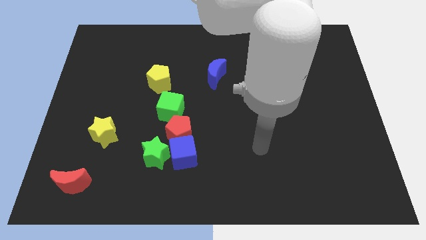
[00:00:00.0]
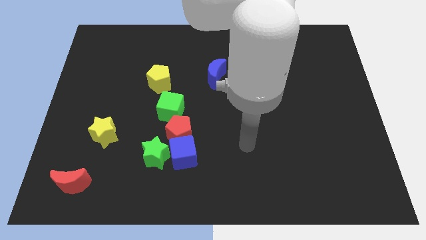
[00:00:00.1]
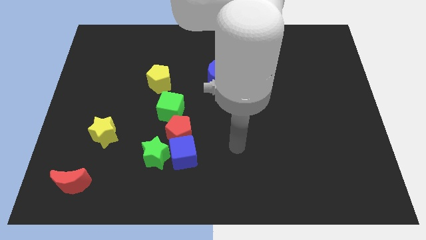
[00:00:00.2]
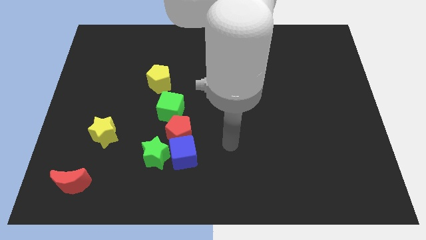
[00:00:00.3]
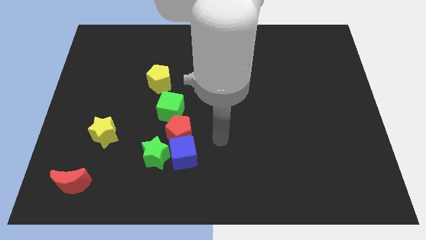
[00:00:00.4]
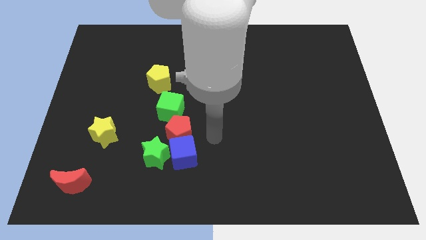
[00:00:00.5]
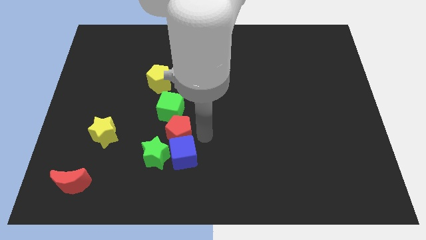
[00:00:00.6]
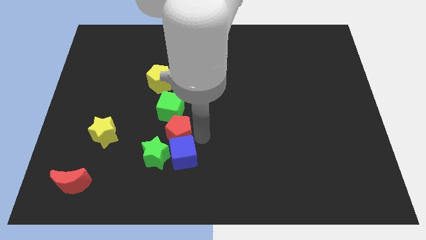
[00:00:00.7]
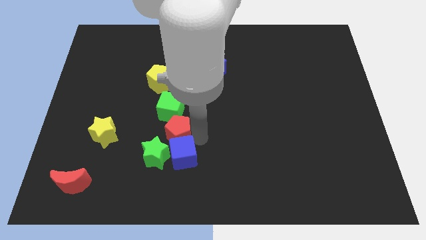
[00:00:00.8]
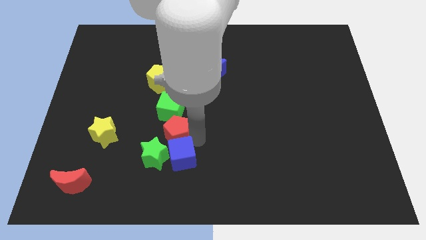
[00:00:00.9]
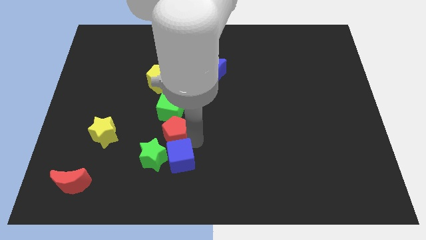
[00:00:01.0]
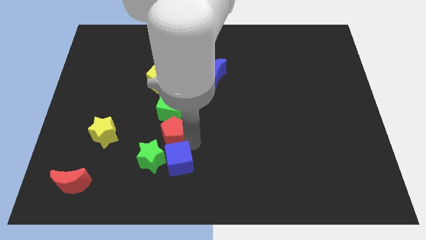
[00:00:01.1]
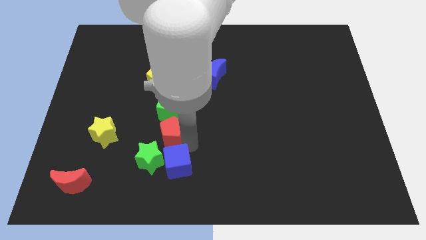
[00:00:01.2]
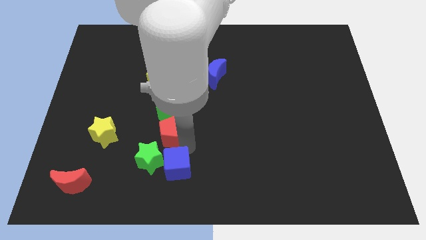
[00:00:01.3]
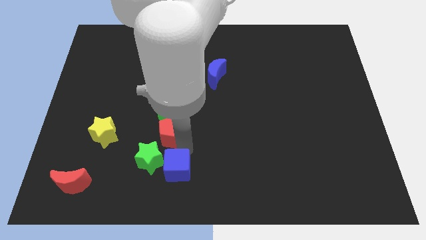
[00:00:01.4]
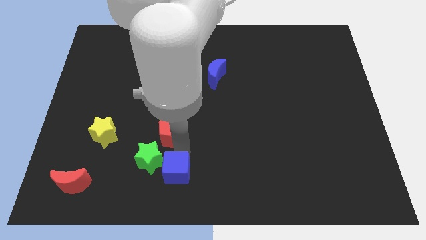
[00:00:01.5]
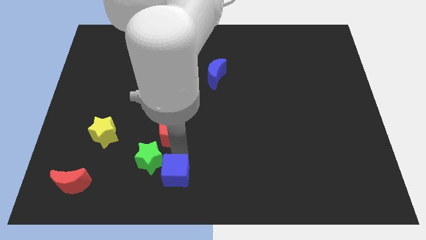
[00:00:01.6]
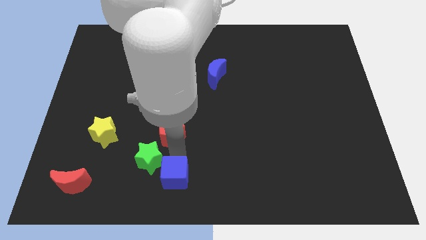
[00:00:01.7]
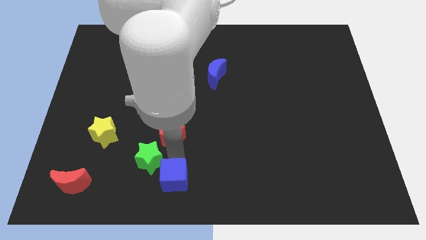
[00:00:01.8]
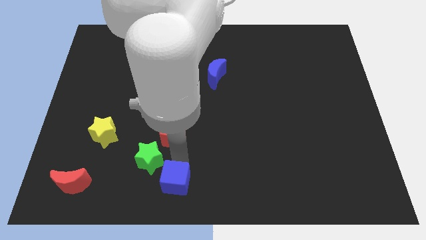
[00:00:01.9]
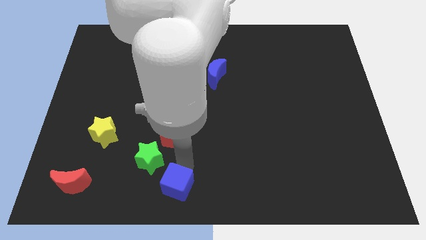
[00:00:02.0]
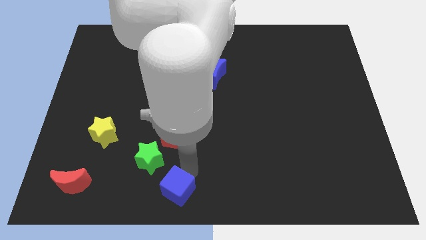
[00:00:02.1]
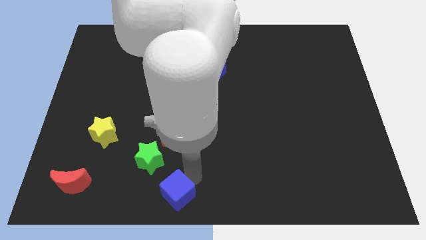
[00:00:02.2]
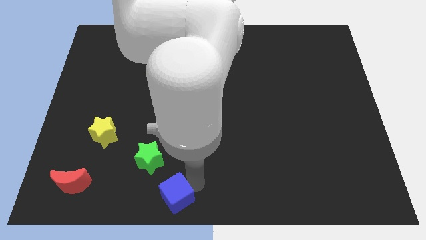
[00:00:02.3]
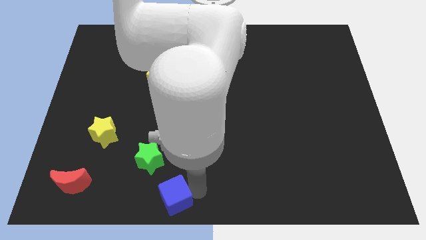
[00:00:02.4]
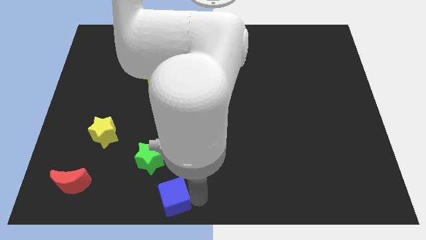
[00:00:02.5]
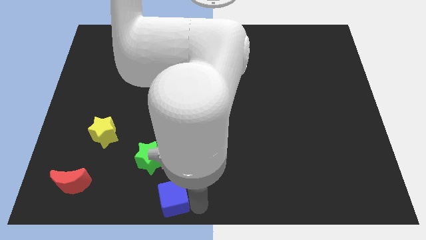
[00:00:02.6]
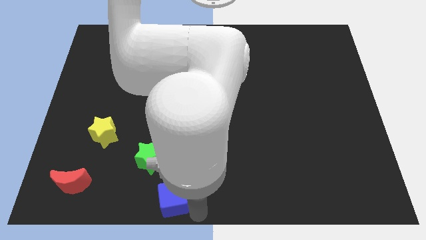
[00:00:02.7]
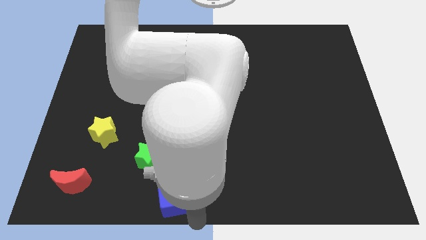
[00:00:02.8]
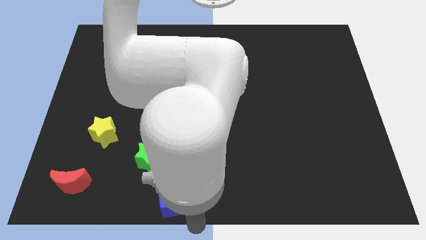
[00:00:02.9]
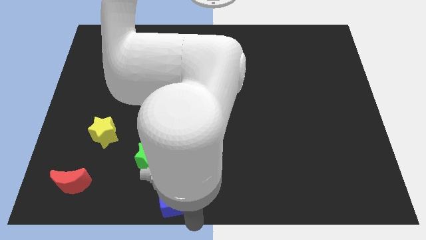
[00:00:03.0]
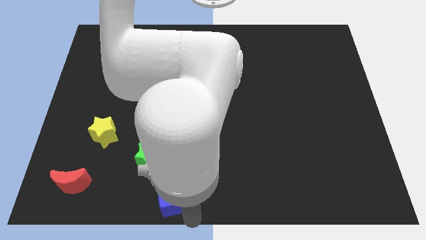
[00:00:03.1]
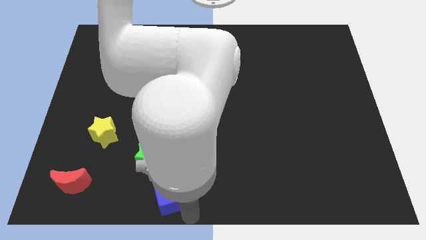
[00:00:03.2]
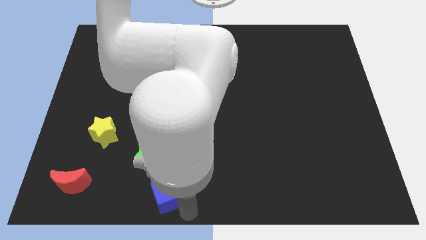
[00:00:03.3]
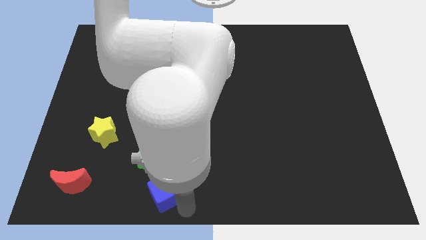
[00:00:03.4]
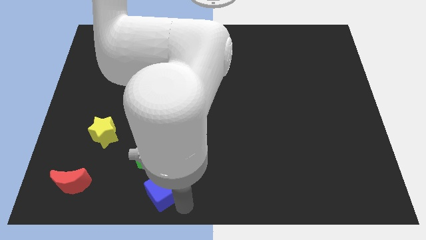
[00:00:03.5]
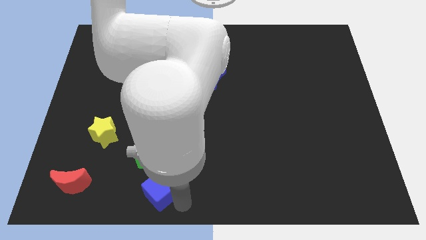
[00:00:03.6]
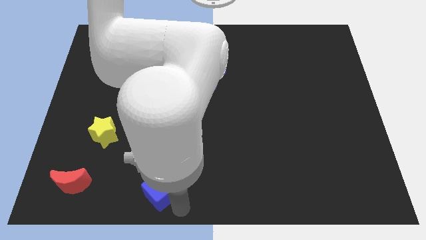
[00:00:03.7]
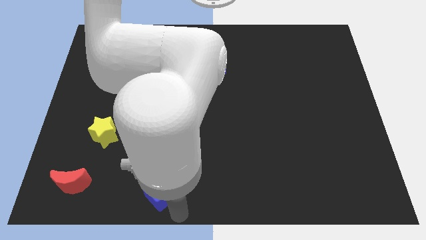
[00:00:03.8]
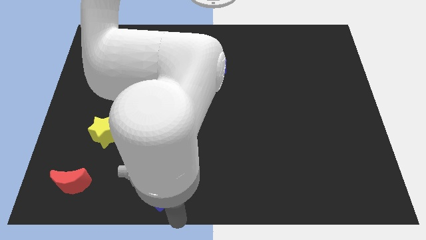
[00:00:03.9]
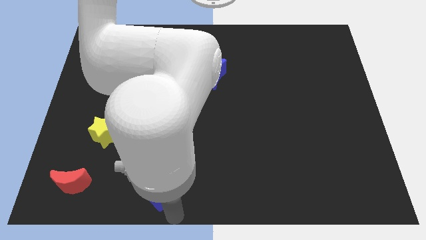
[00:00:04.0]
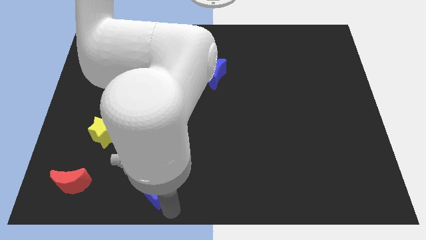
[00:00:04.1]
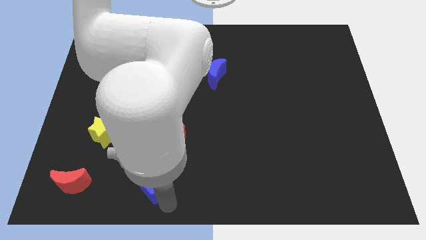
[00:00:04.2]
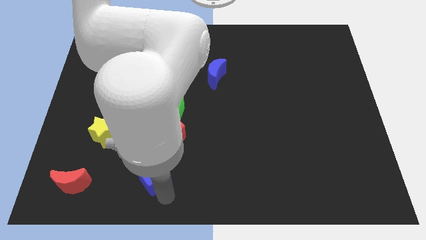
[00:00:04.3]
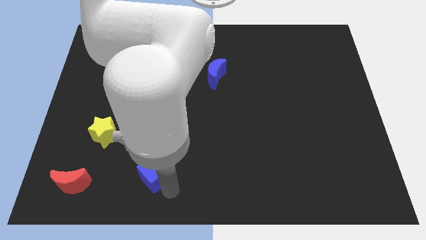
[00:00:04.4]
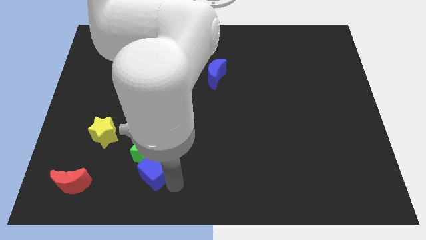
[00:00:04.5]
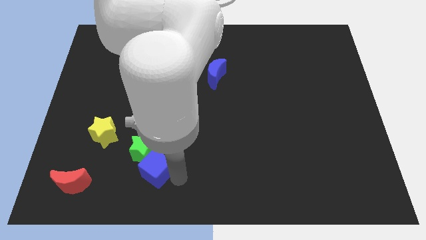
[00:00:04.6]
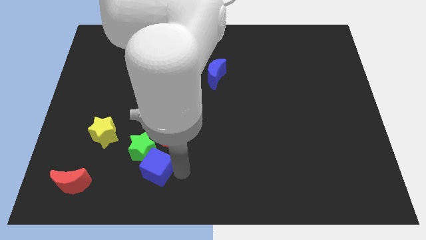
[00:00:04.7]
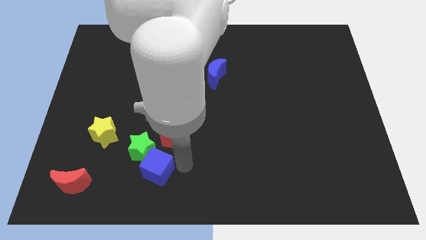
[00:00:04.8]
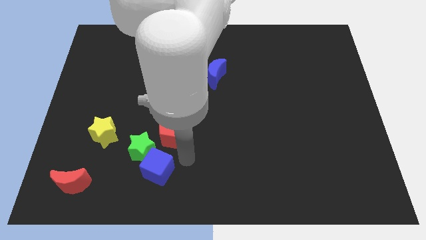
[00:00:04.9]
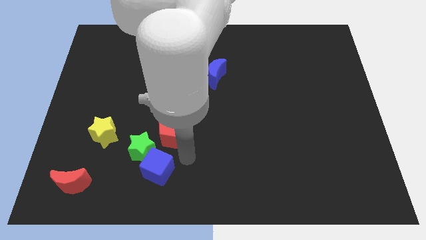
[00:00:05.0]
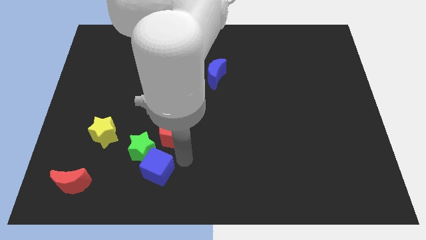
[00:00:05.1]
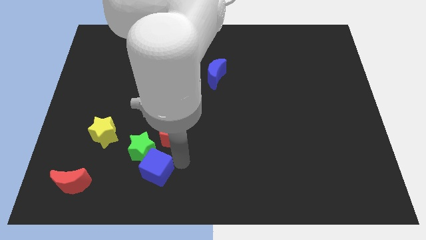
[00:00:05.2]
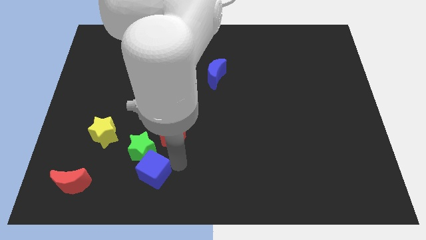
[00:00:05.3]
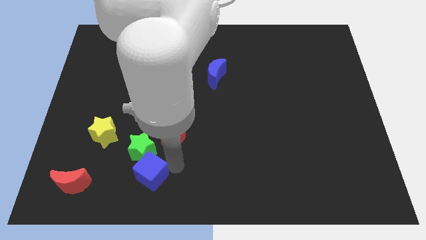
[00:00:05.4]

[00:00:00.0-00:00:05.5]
push the blue cube right of the red moon

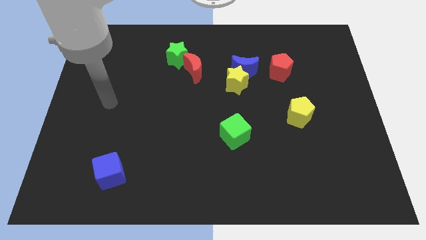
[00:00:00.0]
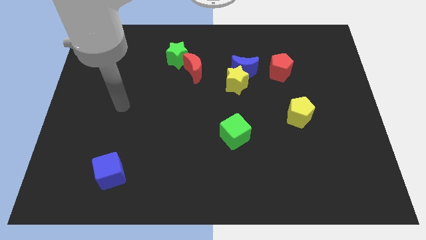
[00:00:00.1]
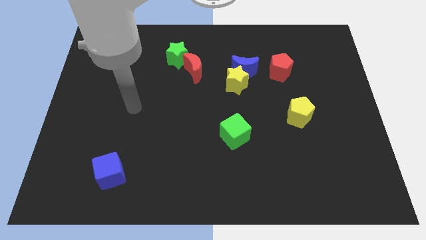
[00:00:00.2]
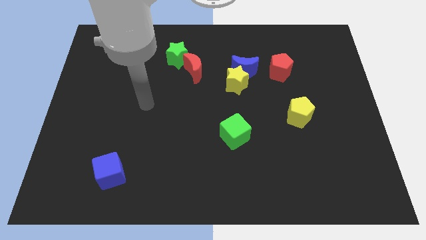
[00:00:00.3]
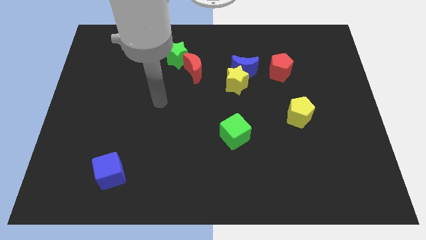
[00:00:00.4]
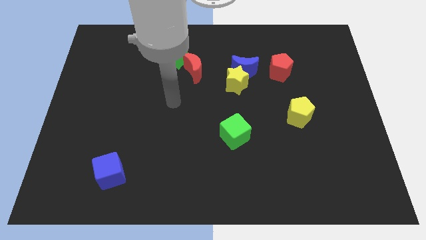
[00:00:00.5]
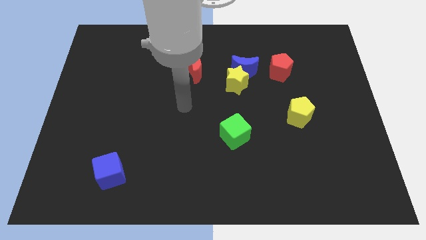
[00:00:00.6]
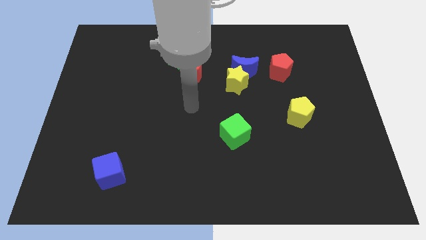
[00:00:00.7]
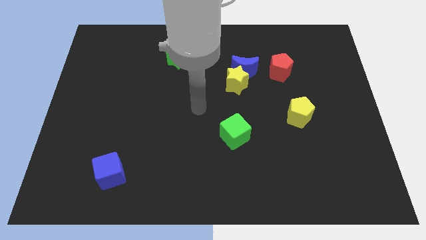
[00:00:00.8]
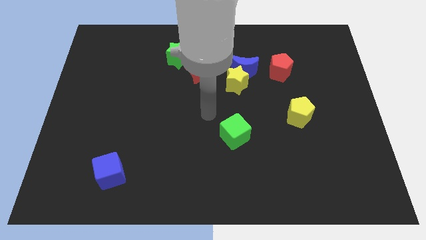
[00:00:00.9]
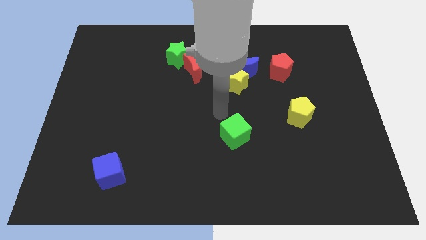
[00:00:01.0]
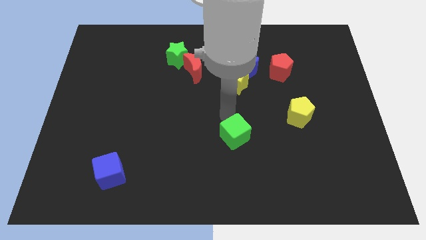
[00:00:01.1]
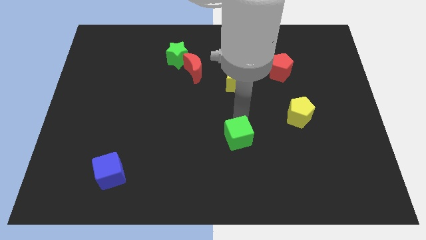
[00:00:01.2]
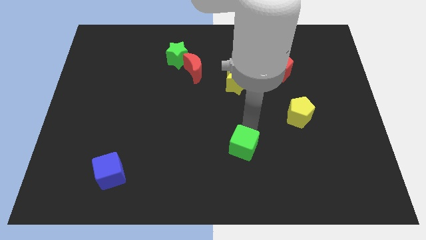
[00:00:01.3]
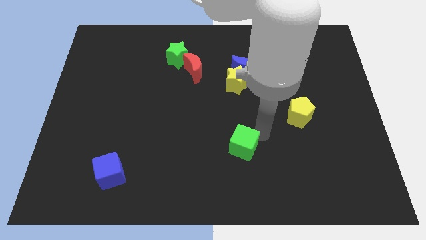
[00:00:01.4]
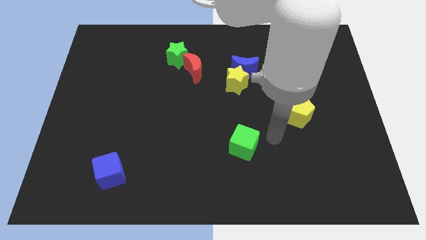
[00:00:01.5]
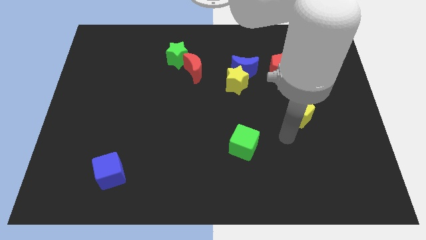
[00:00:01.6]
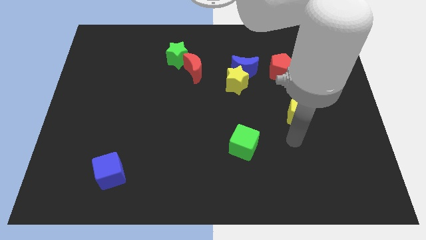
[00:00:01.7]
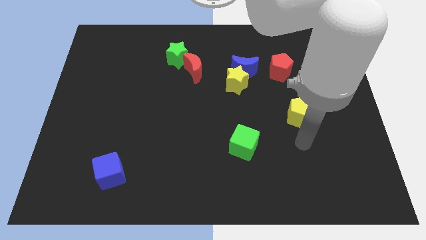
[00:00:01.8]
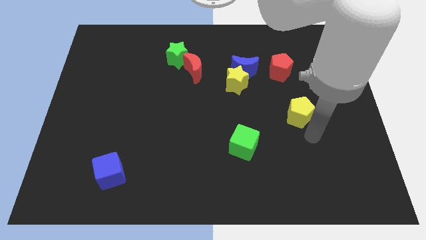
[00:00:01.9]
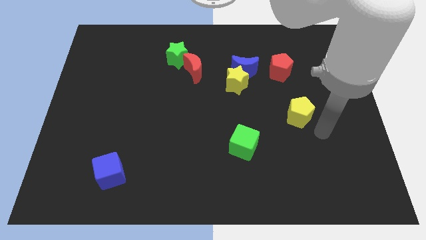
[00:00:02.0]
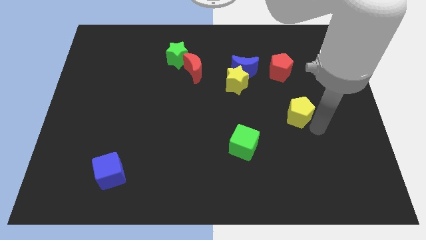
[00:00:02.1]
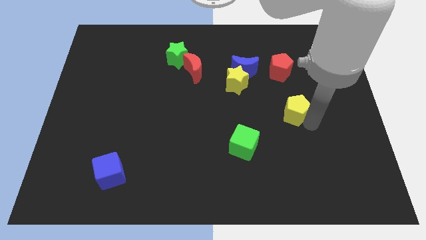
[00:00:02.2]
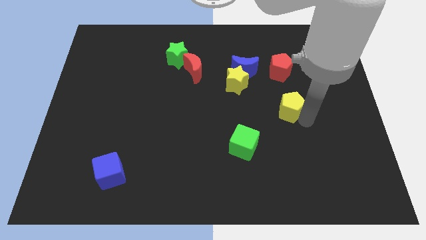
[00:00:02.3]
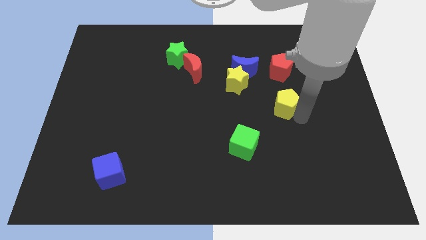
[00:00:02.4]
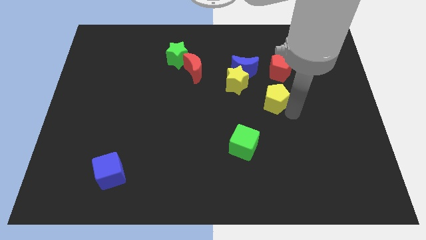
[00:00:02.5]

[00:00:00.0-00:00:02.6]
slide the yellow pentagon to the bottom right side of the blue moon
